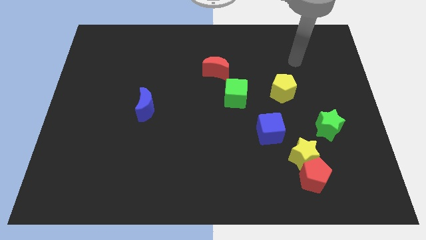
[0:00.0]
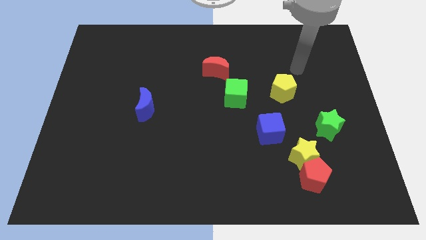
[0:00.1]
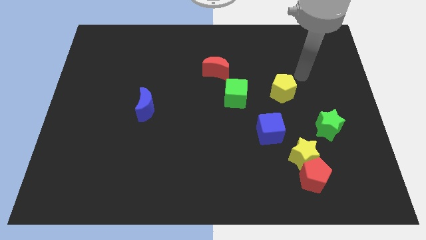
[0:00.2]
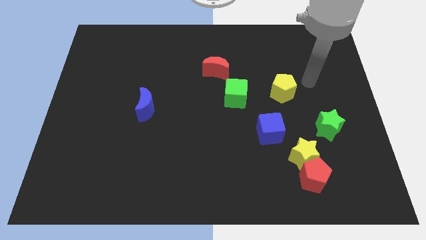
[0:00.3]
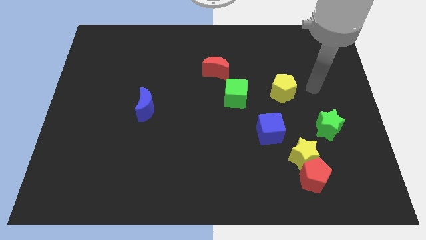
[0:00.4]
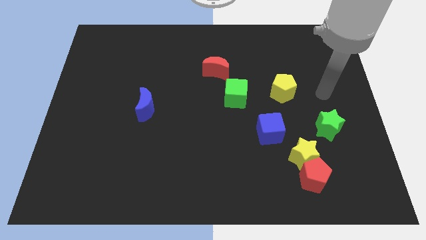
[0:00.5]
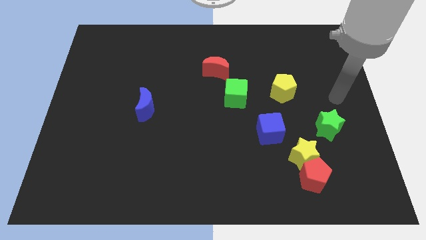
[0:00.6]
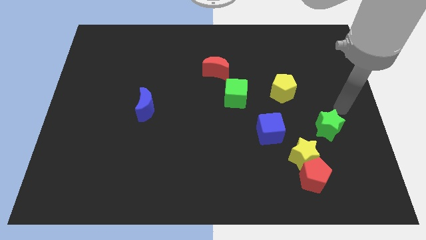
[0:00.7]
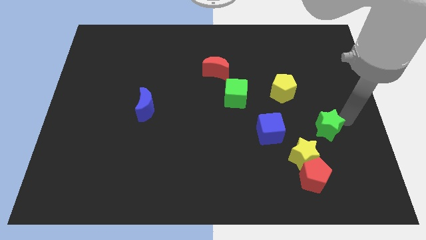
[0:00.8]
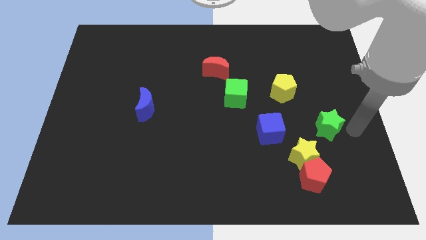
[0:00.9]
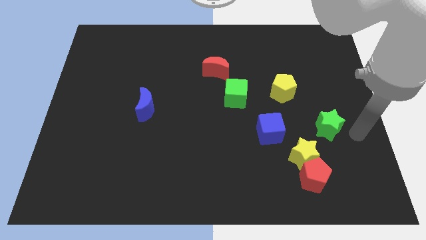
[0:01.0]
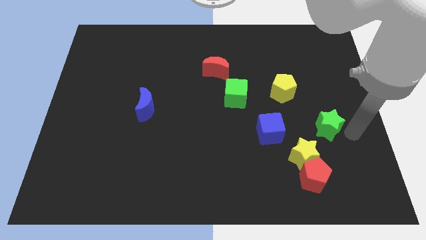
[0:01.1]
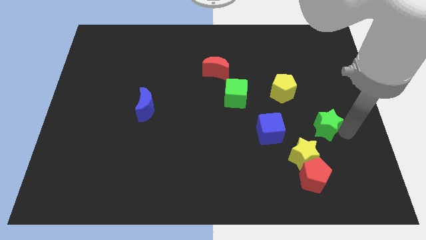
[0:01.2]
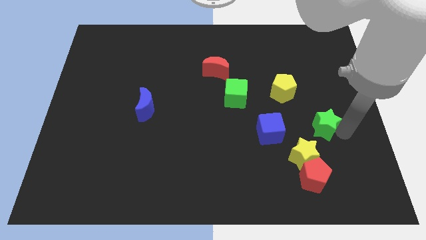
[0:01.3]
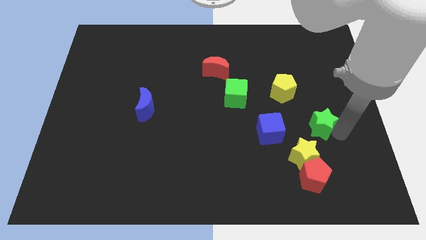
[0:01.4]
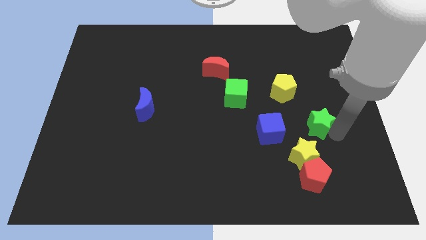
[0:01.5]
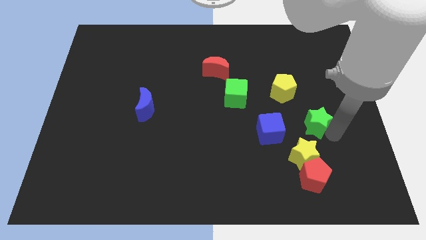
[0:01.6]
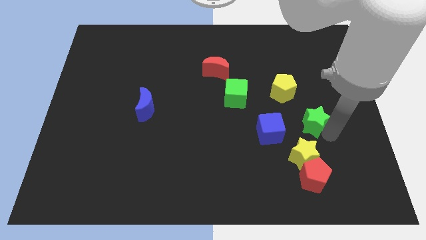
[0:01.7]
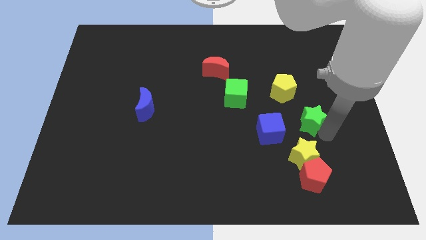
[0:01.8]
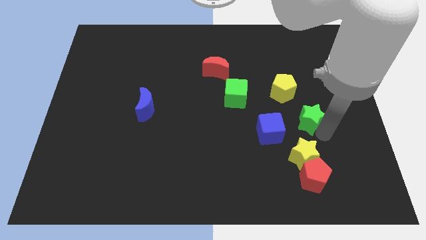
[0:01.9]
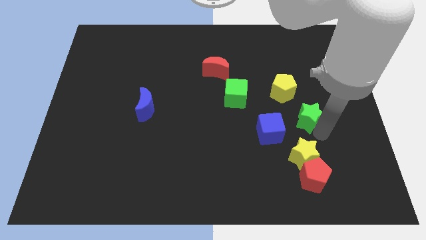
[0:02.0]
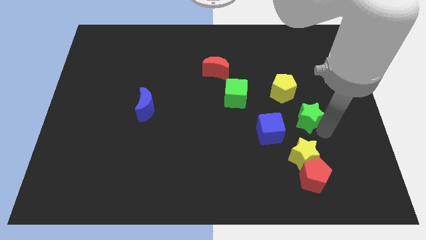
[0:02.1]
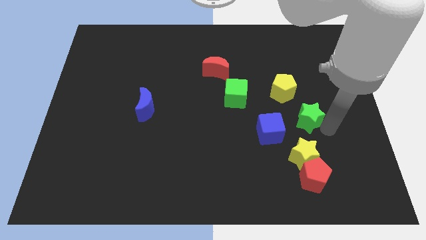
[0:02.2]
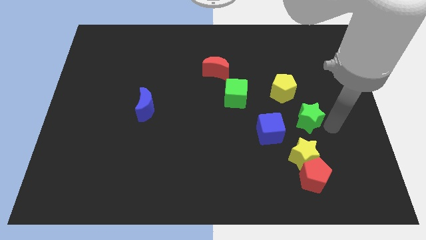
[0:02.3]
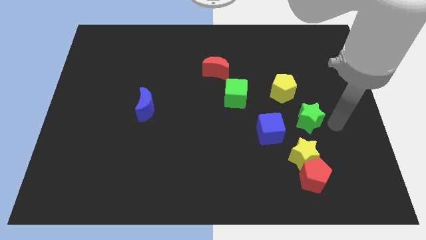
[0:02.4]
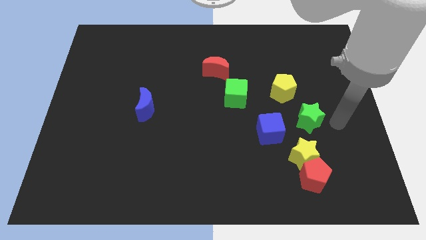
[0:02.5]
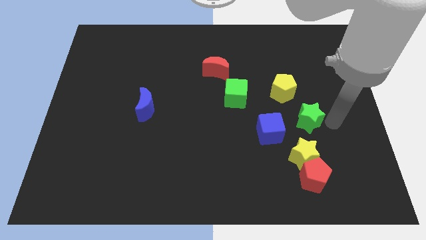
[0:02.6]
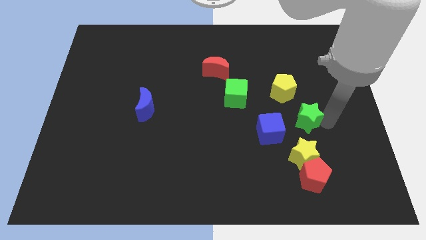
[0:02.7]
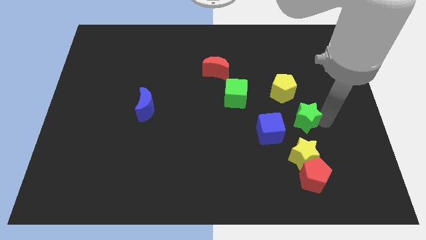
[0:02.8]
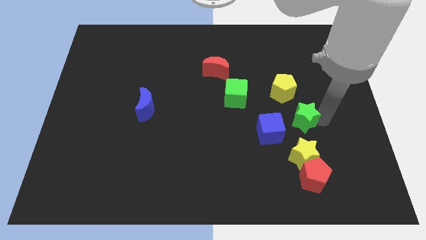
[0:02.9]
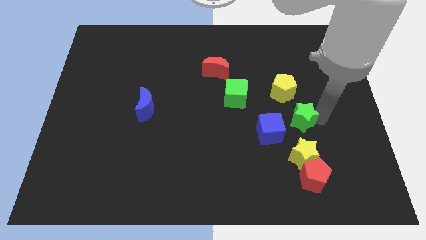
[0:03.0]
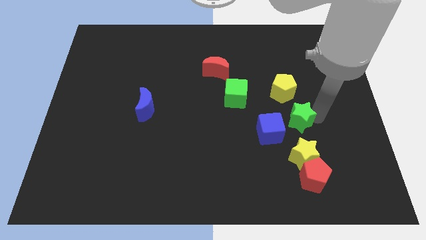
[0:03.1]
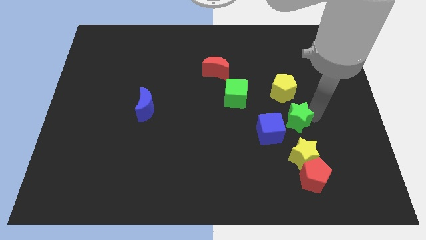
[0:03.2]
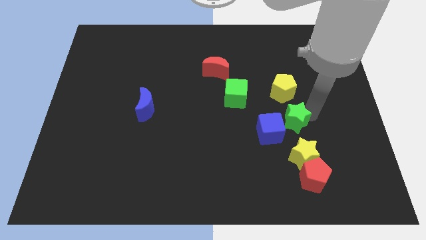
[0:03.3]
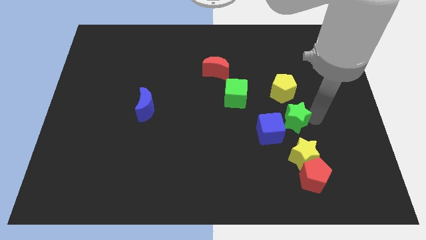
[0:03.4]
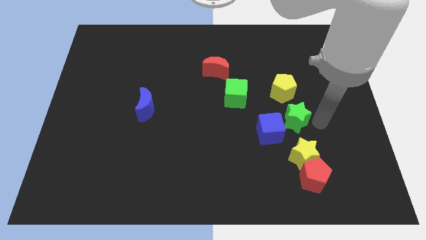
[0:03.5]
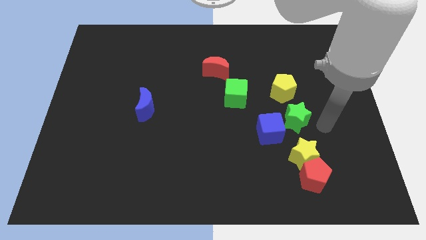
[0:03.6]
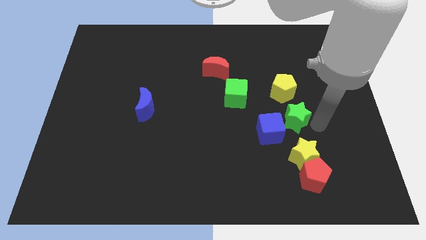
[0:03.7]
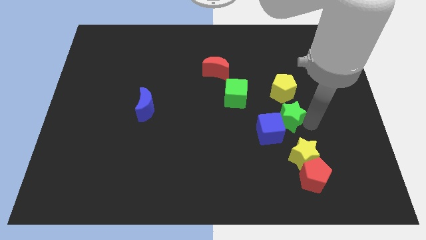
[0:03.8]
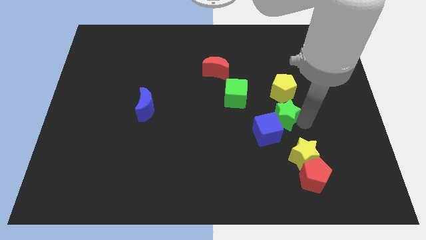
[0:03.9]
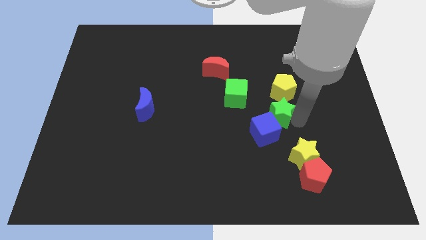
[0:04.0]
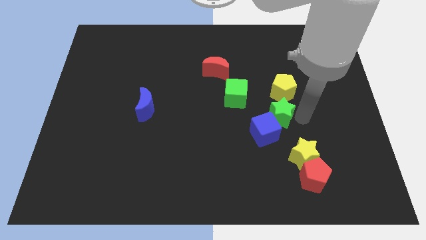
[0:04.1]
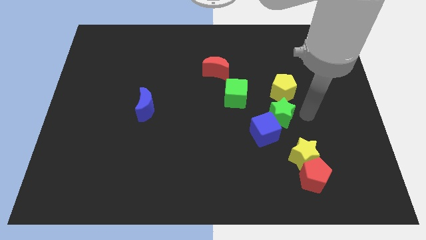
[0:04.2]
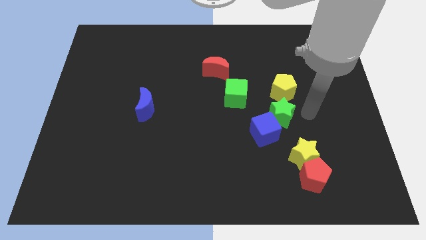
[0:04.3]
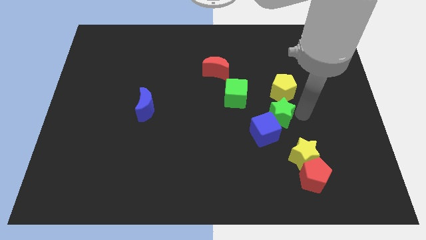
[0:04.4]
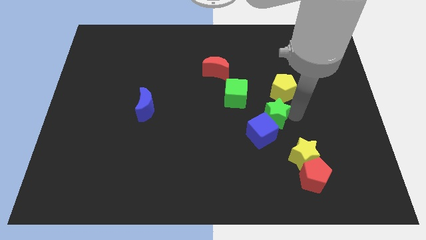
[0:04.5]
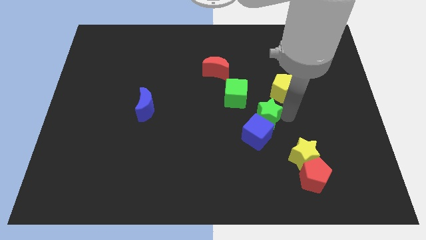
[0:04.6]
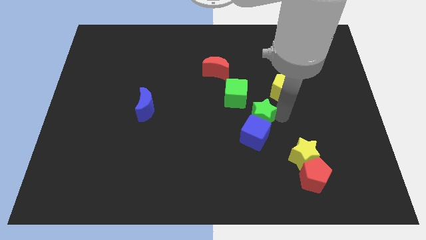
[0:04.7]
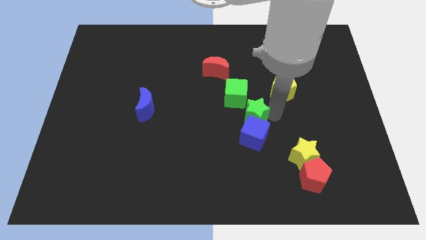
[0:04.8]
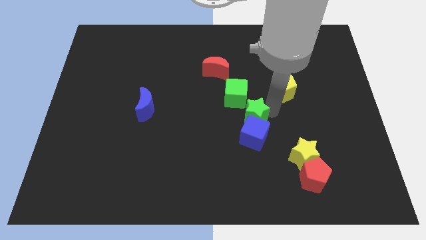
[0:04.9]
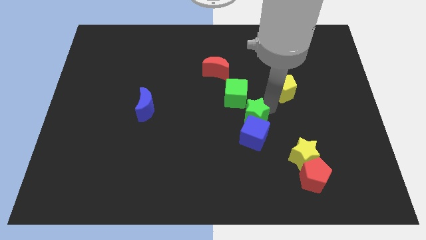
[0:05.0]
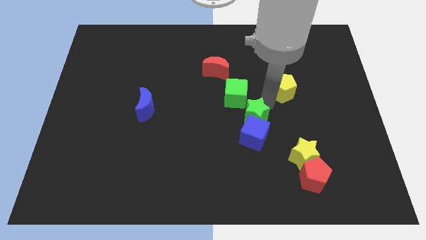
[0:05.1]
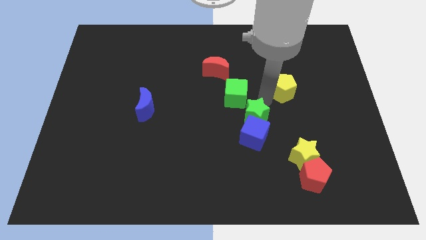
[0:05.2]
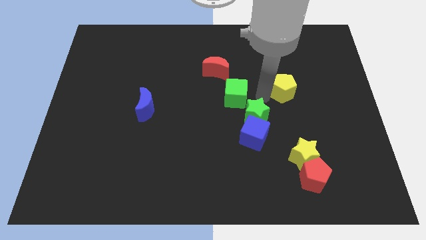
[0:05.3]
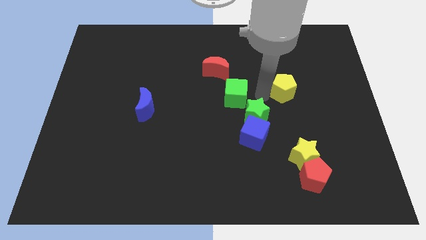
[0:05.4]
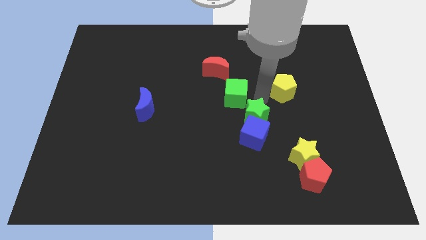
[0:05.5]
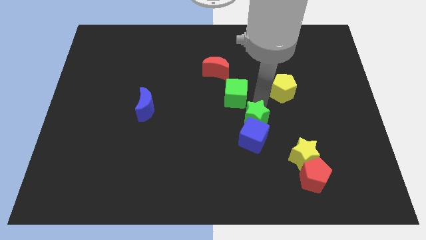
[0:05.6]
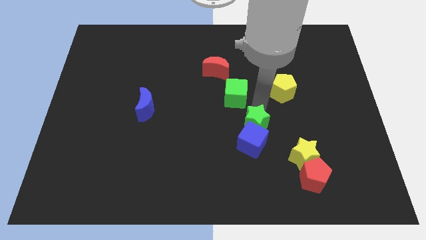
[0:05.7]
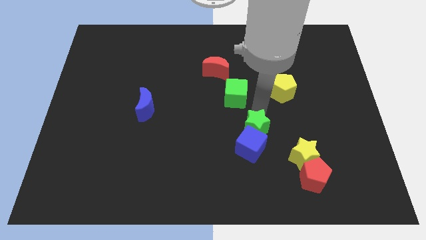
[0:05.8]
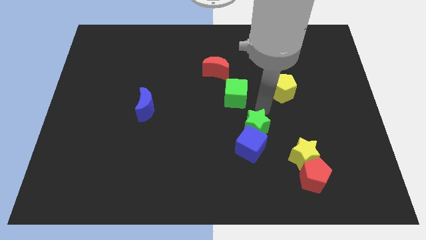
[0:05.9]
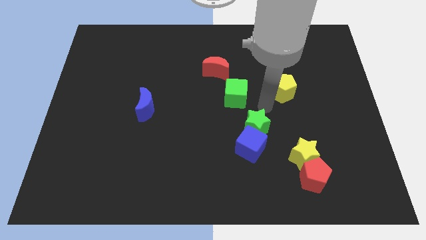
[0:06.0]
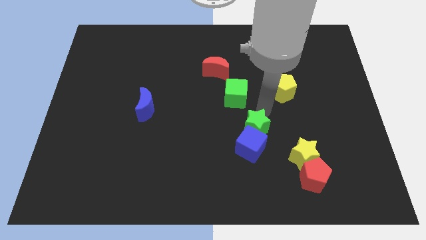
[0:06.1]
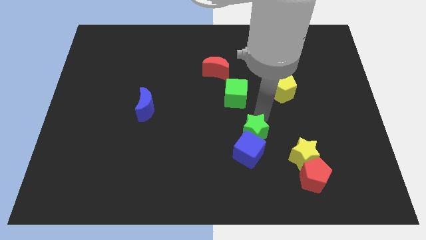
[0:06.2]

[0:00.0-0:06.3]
slightly move the green star downwards and left

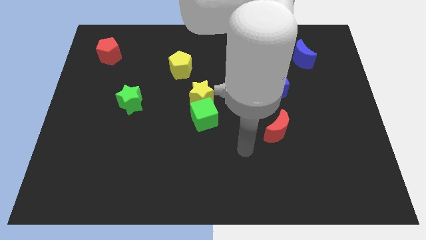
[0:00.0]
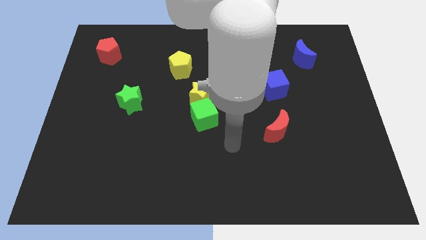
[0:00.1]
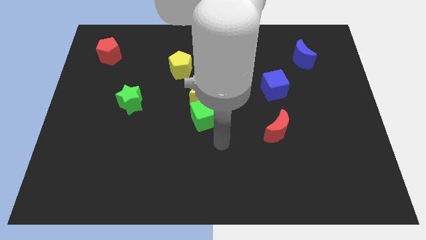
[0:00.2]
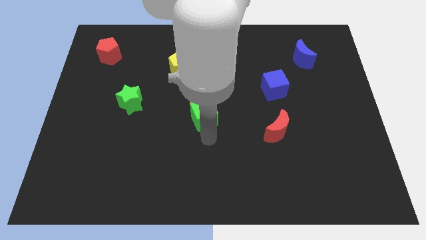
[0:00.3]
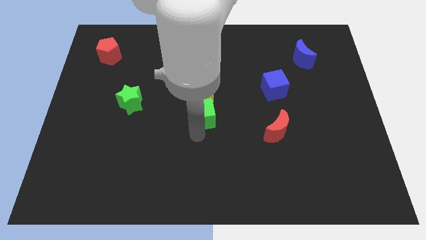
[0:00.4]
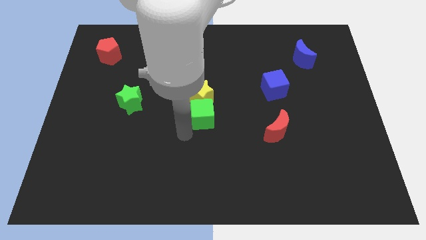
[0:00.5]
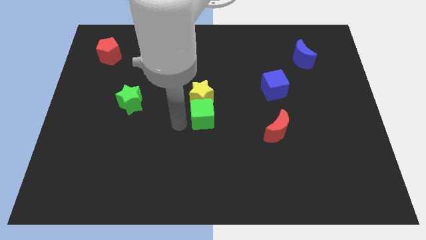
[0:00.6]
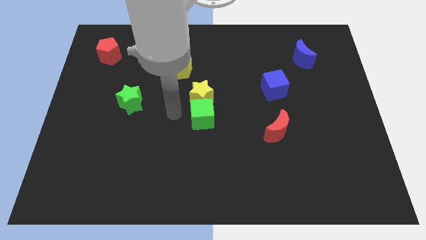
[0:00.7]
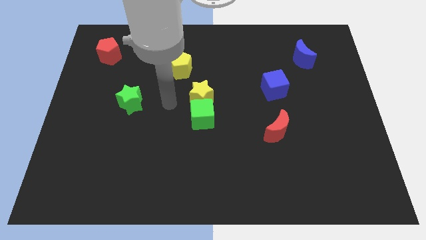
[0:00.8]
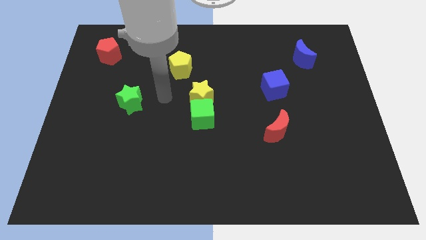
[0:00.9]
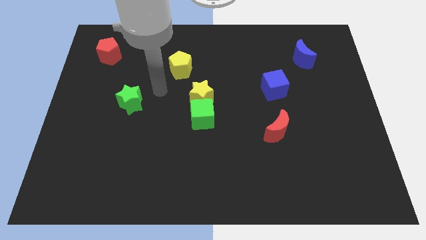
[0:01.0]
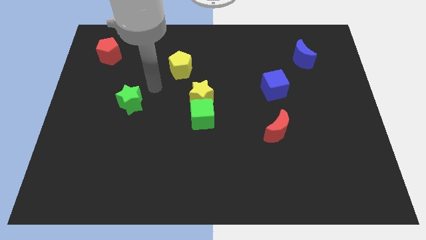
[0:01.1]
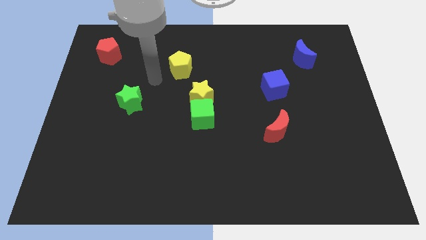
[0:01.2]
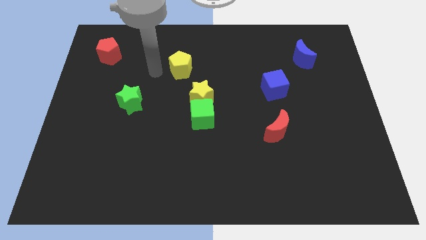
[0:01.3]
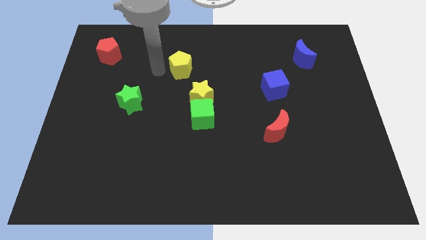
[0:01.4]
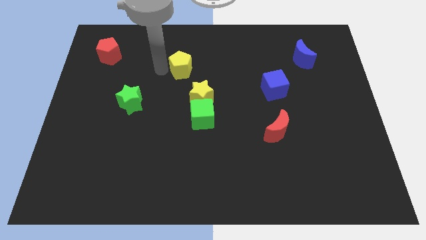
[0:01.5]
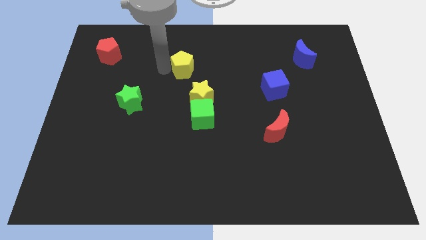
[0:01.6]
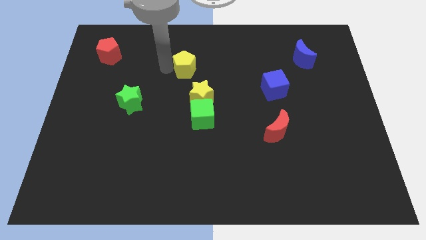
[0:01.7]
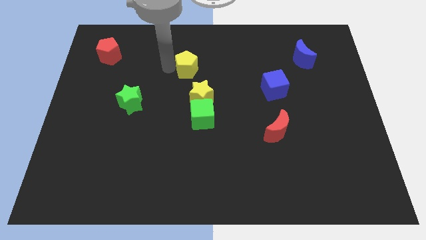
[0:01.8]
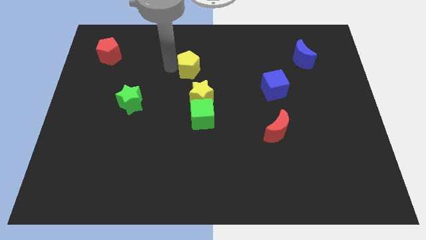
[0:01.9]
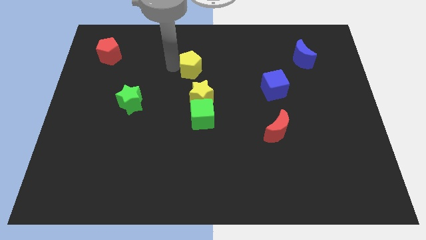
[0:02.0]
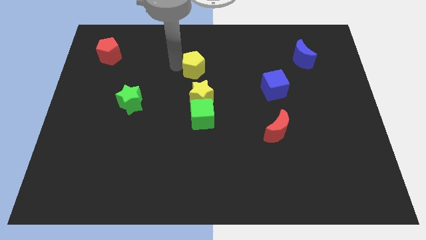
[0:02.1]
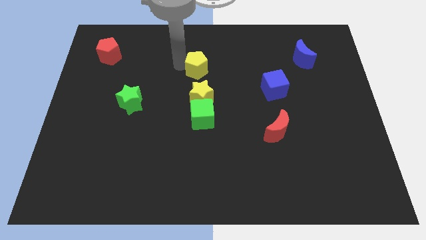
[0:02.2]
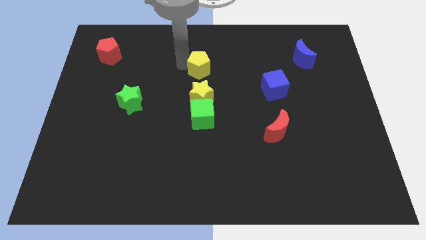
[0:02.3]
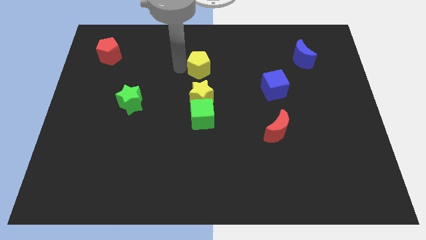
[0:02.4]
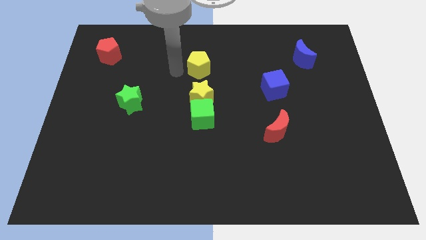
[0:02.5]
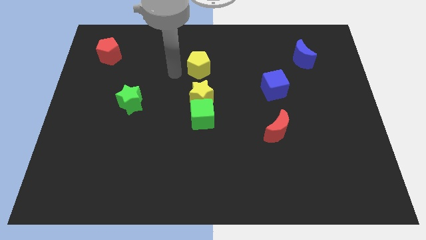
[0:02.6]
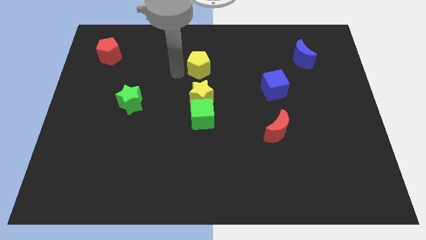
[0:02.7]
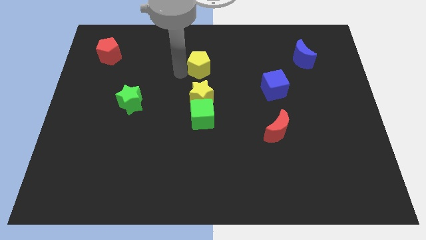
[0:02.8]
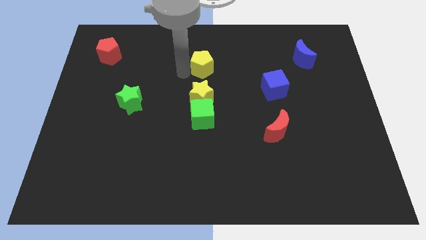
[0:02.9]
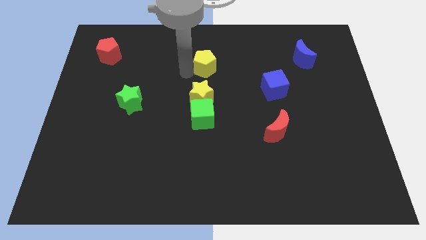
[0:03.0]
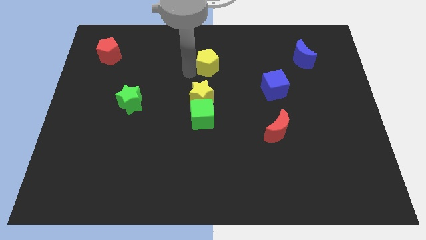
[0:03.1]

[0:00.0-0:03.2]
slightly slide the yellow pentagon to the right
